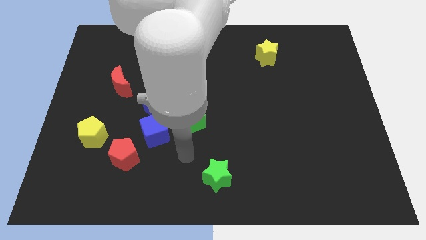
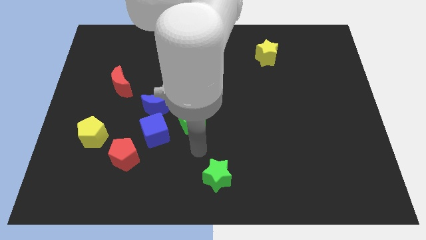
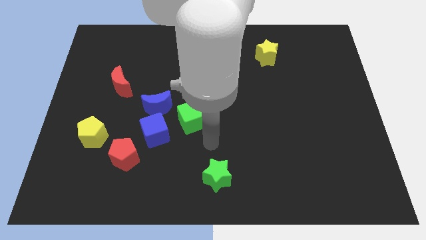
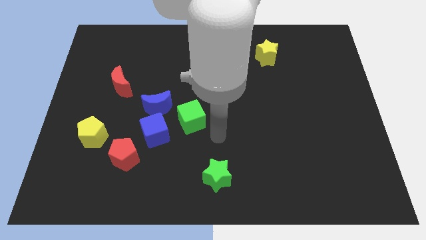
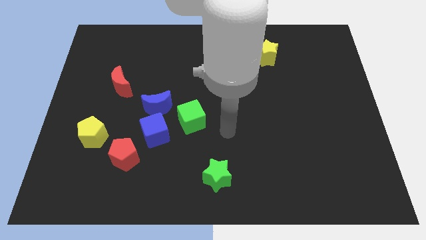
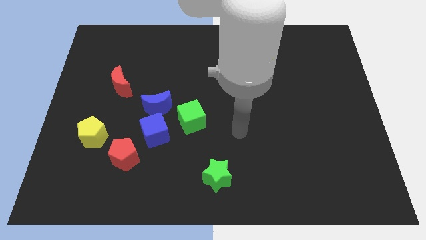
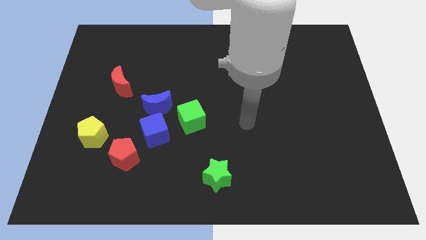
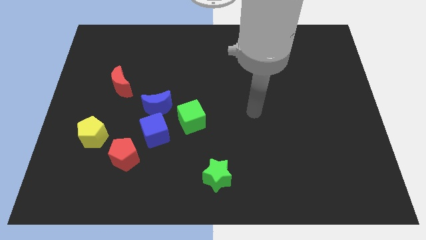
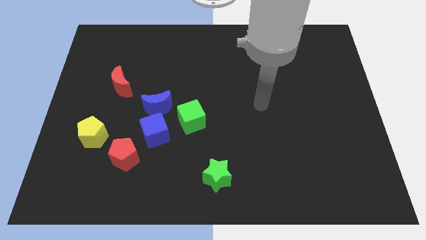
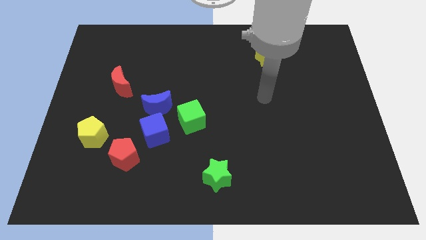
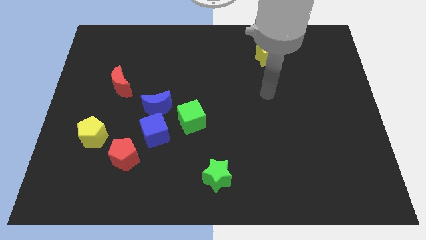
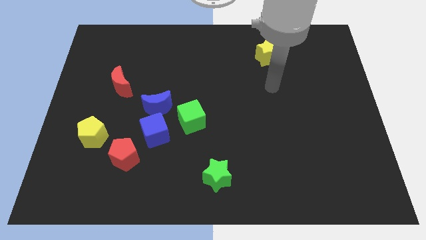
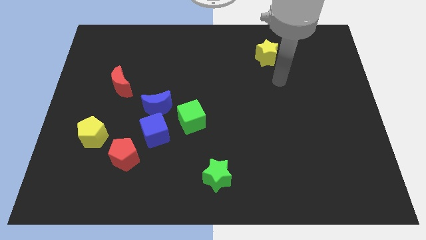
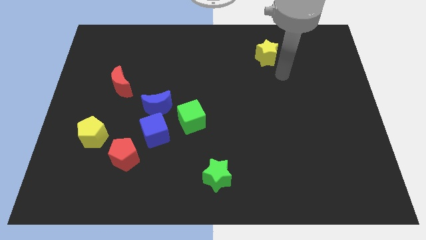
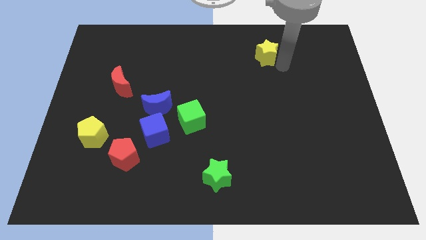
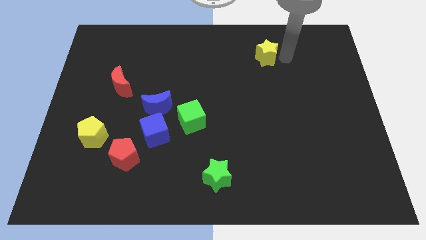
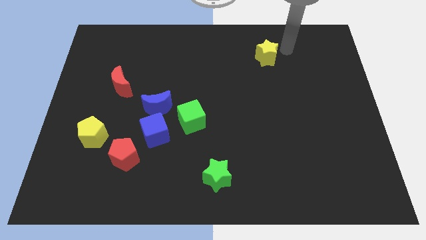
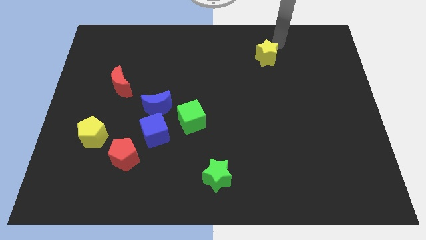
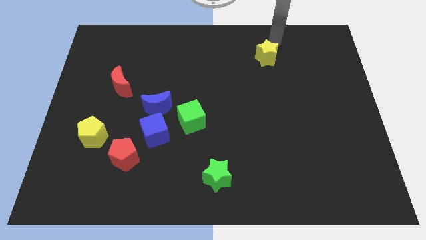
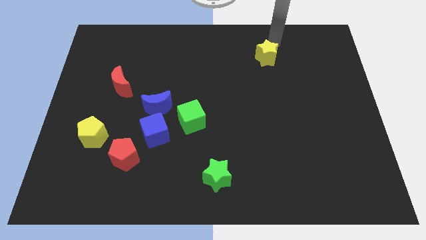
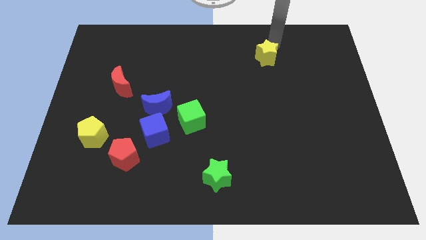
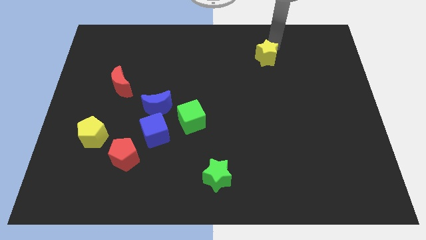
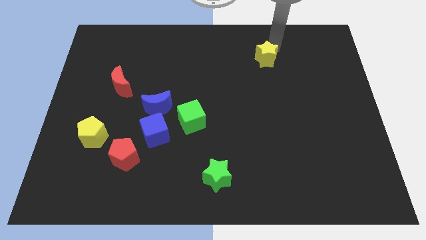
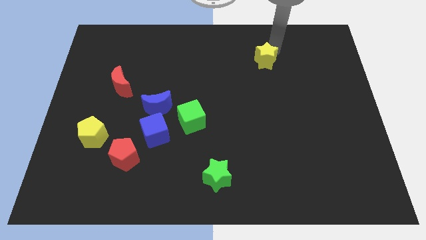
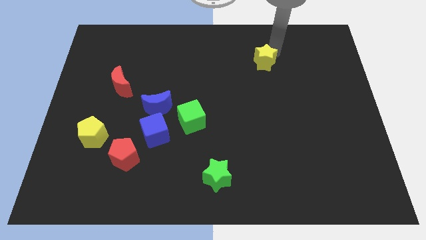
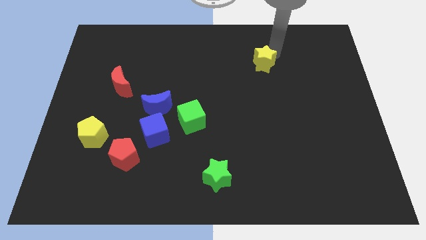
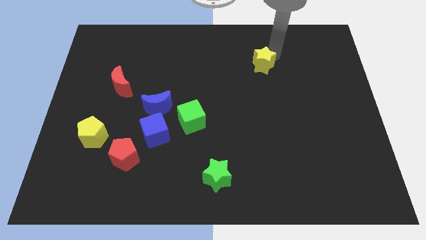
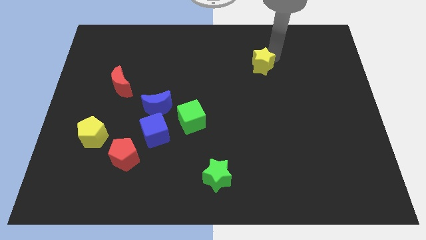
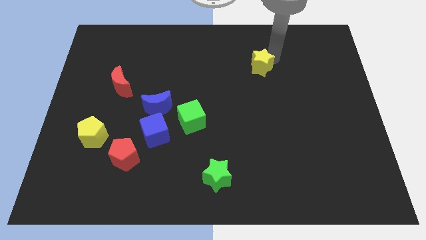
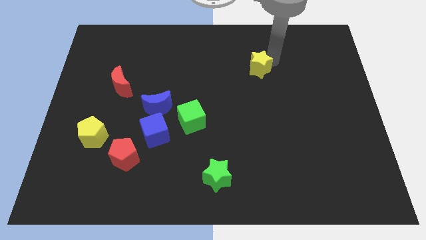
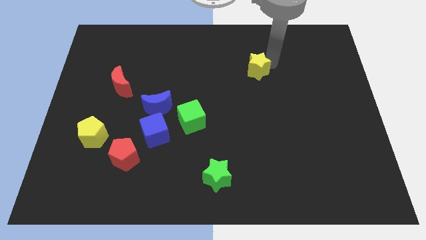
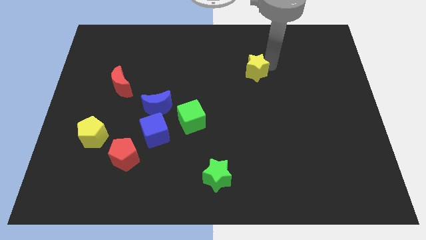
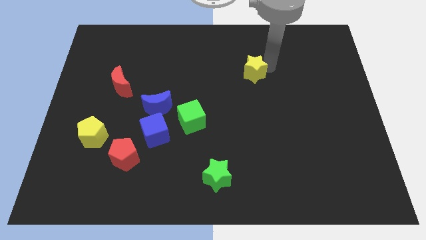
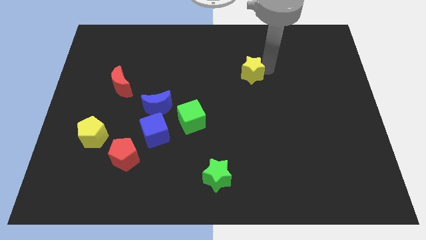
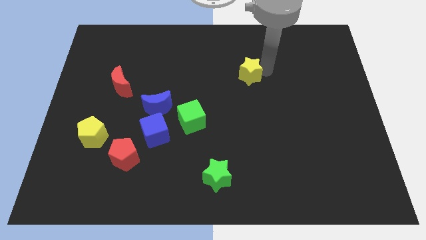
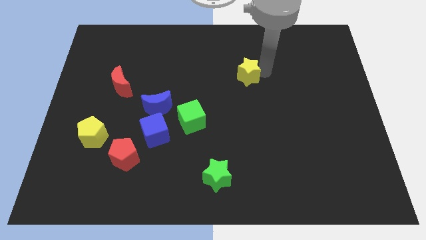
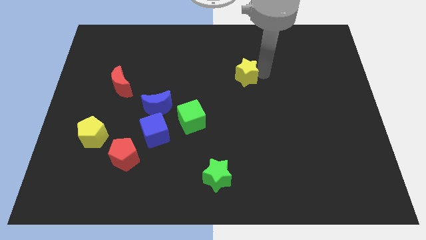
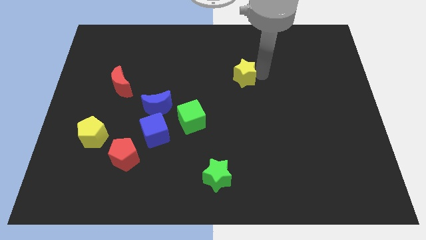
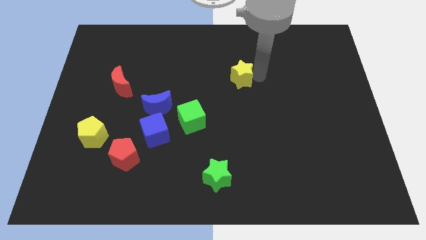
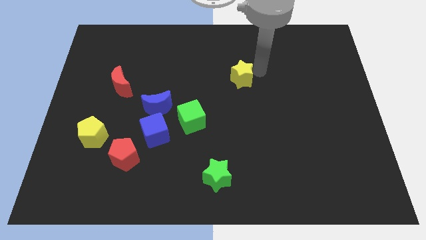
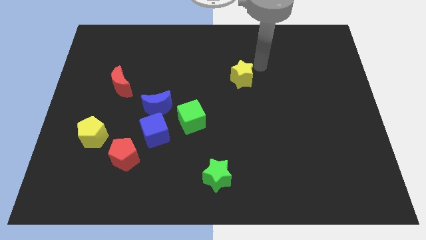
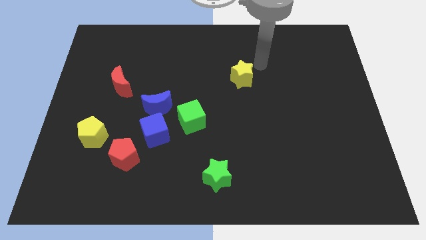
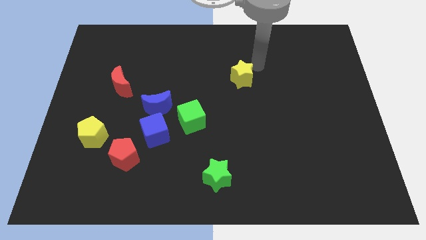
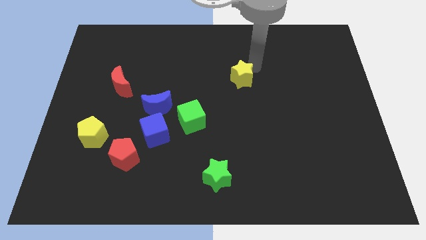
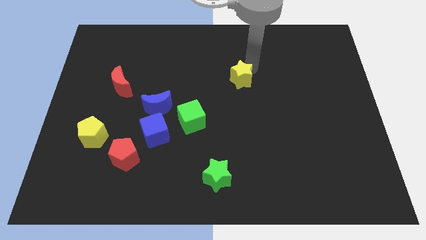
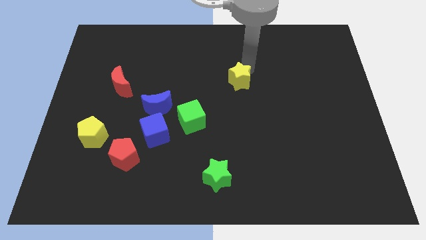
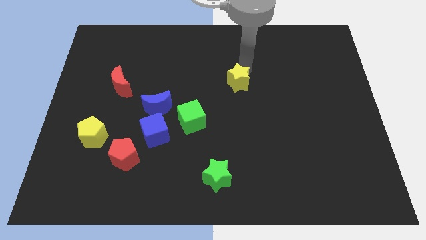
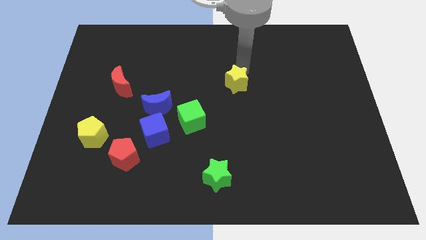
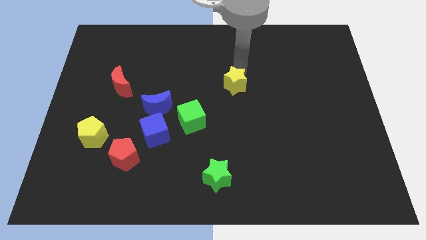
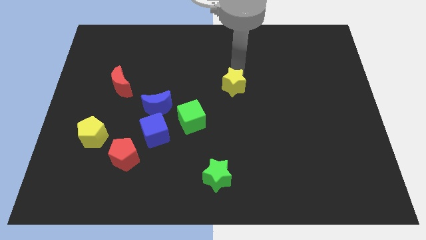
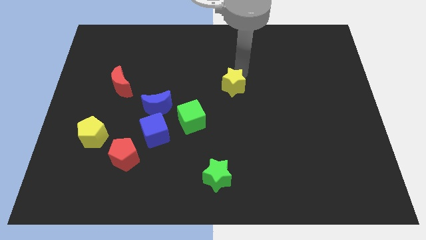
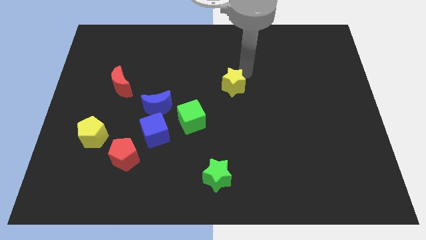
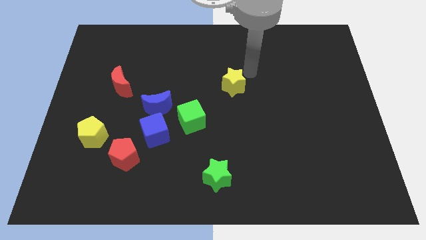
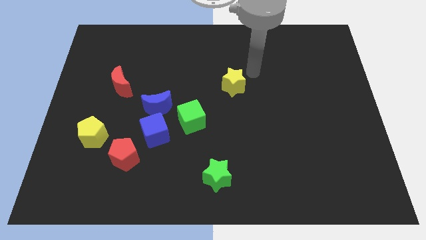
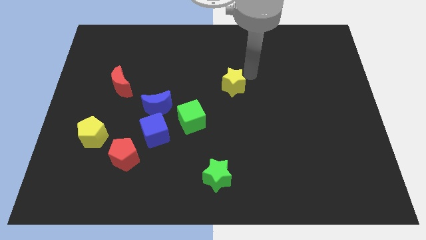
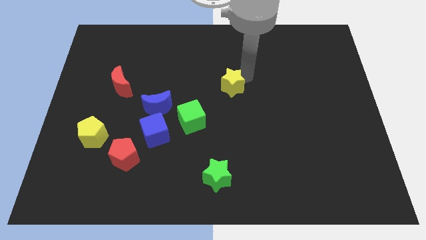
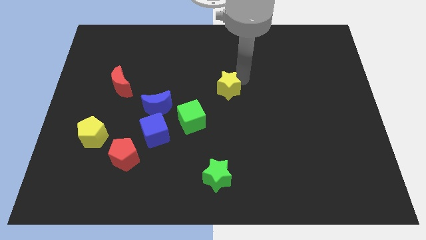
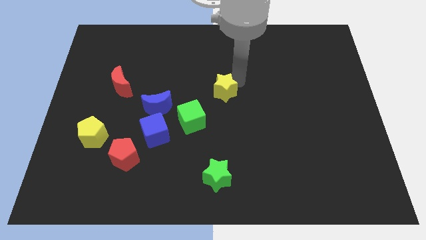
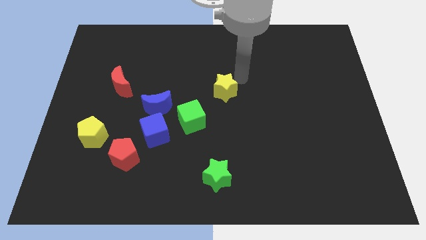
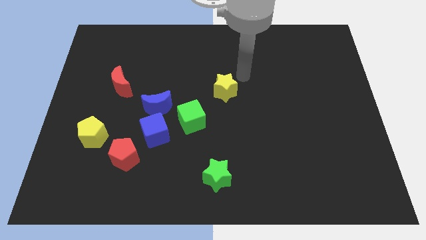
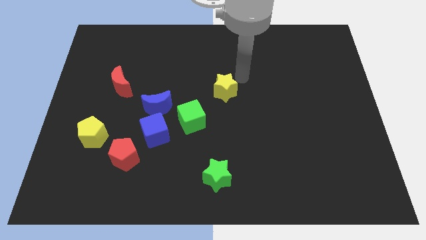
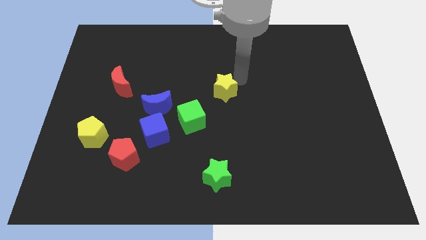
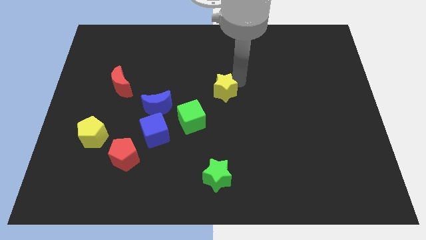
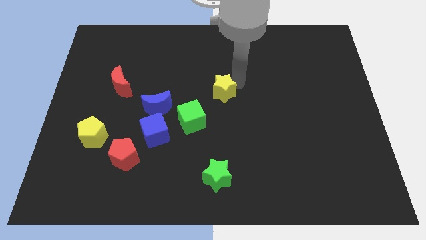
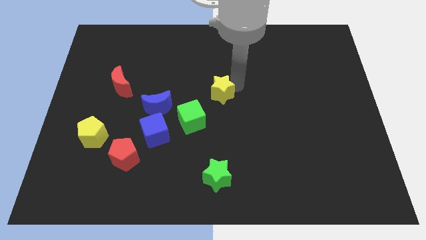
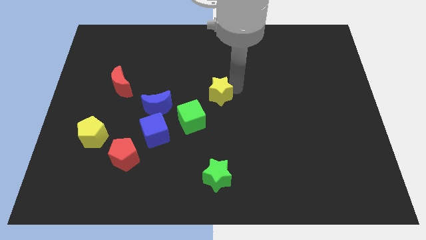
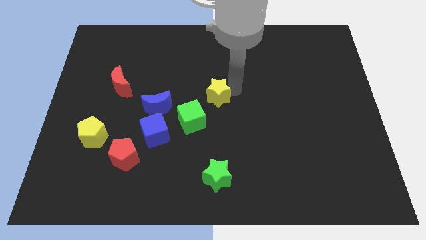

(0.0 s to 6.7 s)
put the yellow star right of the blue moon
